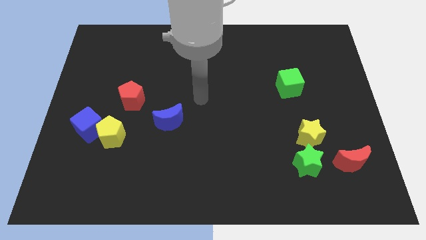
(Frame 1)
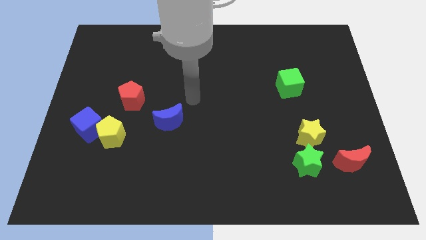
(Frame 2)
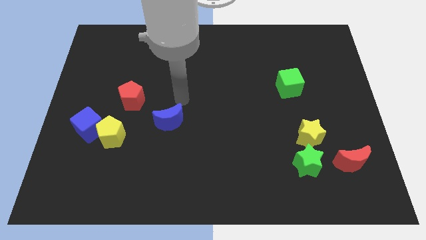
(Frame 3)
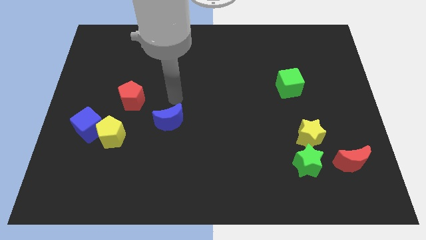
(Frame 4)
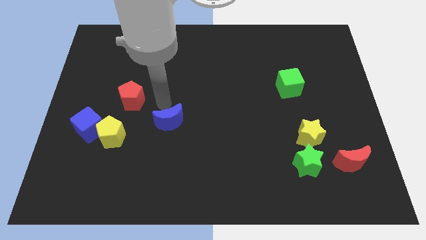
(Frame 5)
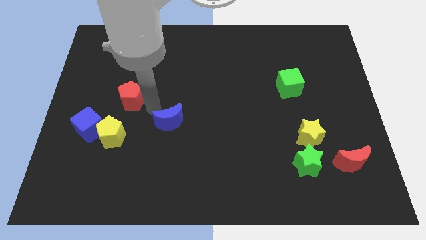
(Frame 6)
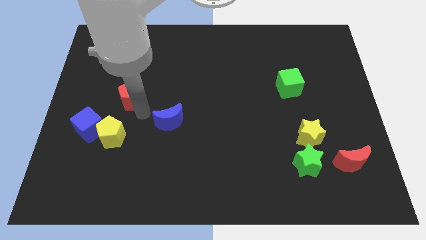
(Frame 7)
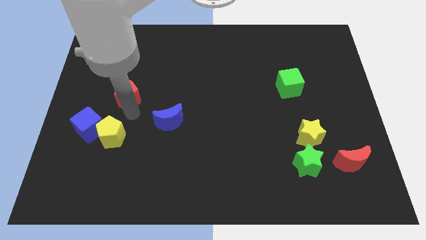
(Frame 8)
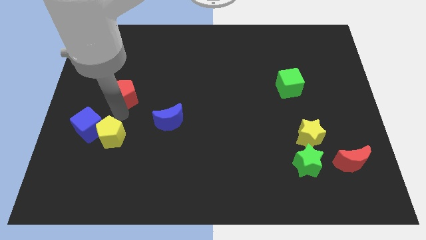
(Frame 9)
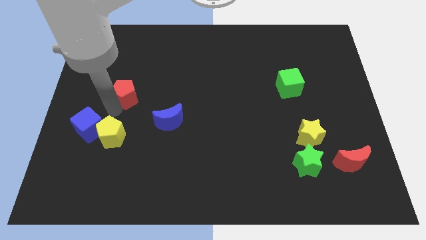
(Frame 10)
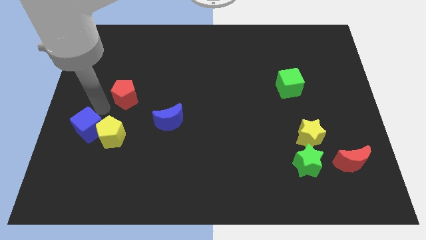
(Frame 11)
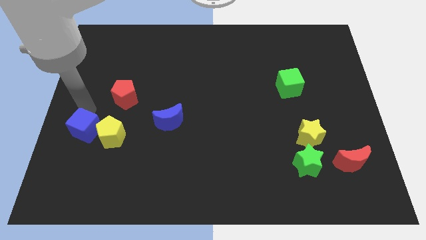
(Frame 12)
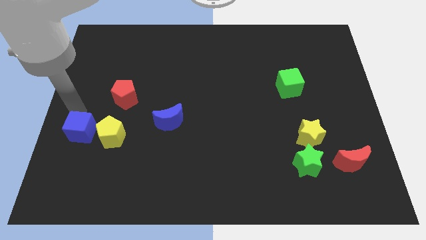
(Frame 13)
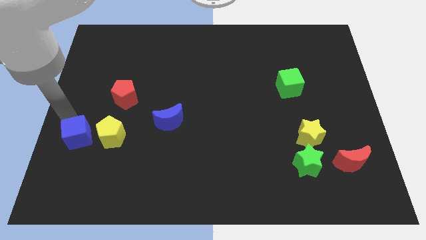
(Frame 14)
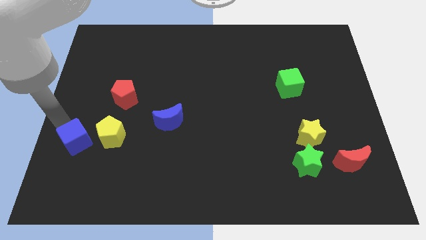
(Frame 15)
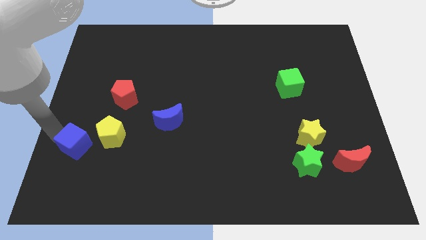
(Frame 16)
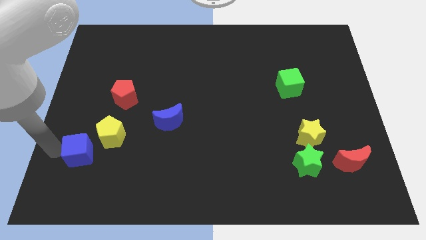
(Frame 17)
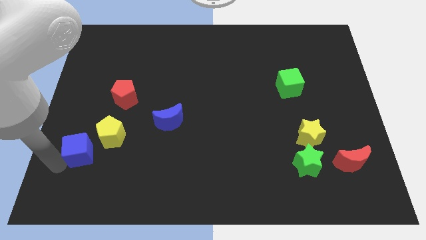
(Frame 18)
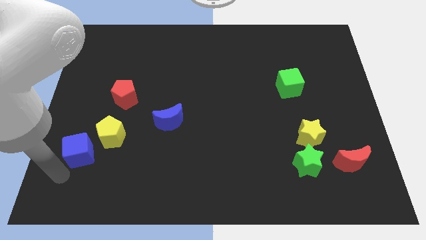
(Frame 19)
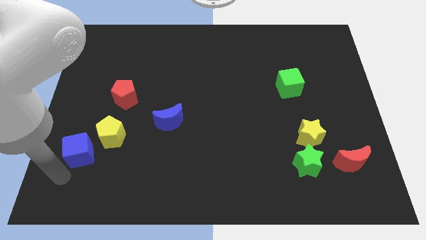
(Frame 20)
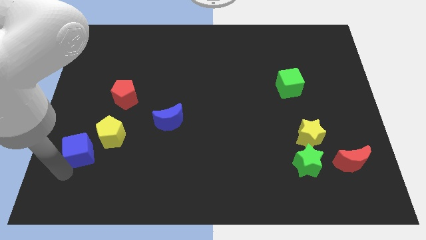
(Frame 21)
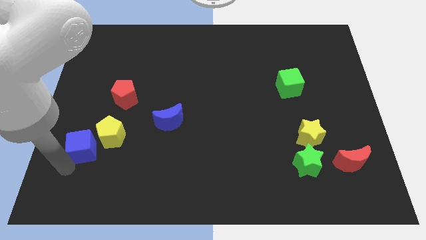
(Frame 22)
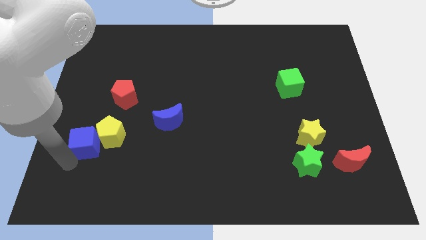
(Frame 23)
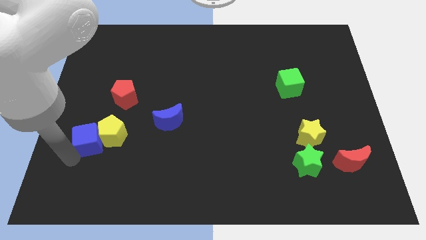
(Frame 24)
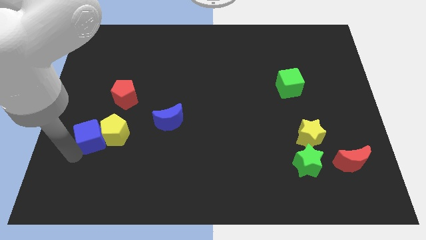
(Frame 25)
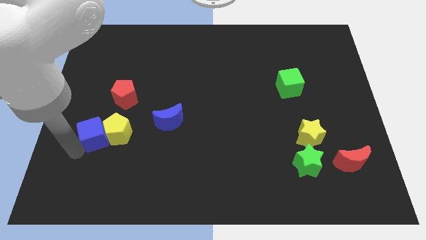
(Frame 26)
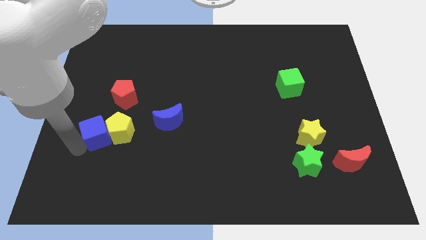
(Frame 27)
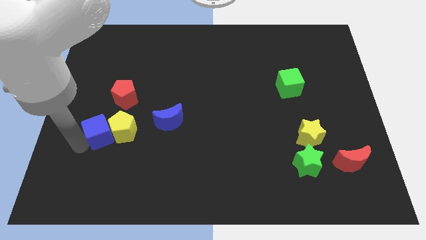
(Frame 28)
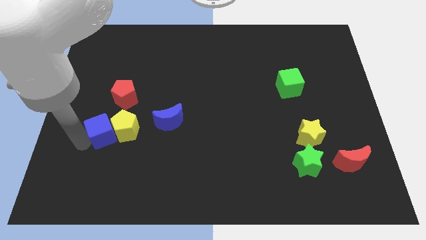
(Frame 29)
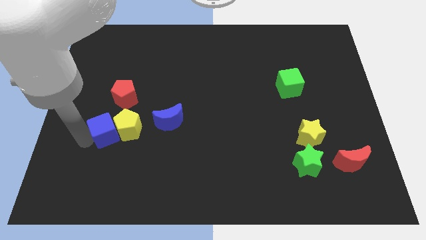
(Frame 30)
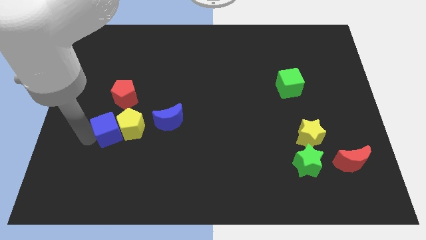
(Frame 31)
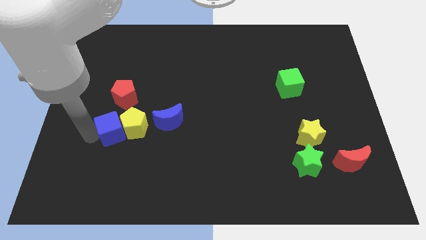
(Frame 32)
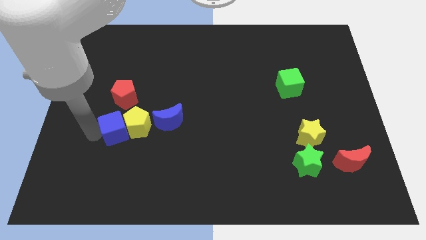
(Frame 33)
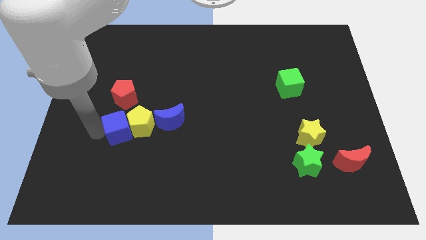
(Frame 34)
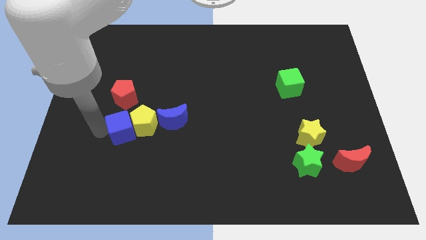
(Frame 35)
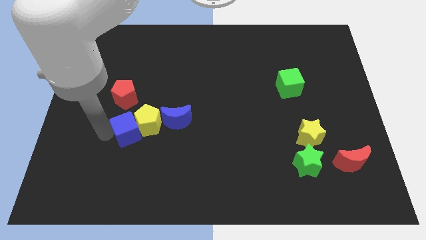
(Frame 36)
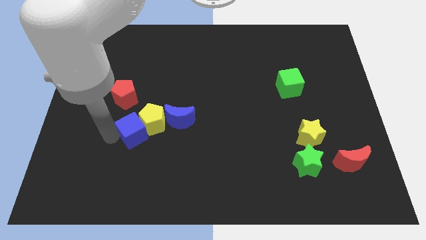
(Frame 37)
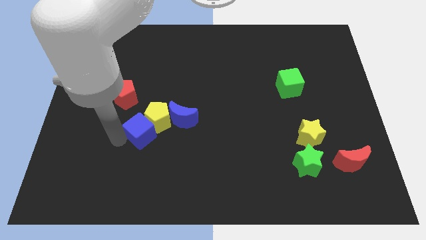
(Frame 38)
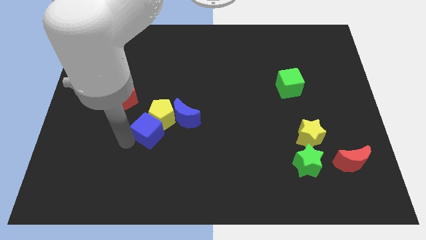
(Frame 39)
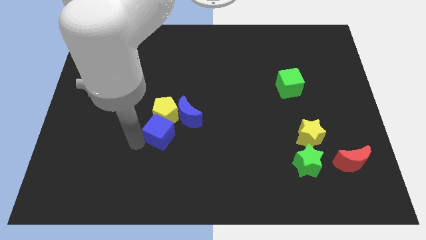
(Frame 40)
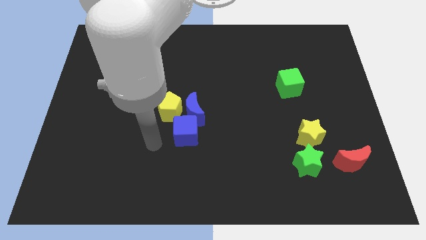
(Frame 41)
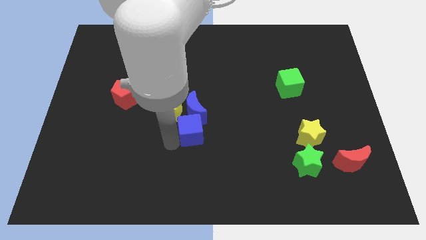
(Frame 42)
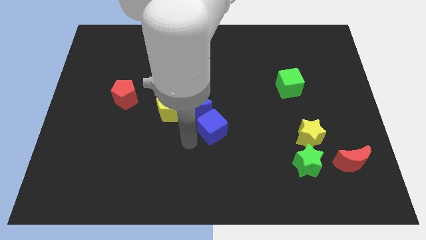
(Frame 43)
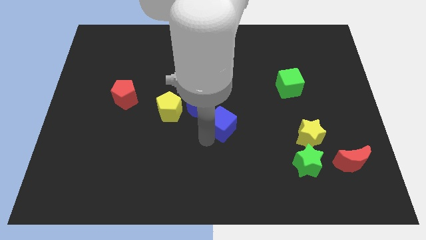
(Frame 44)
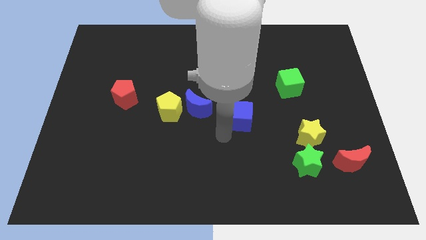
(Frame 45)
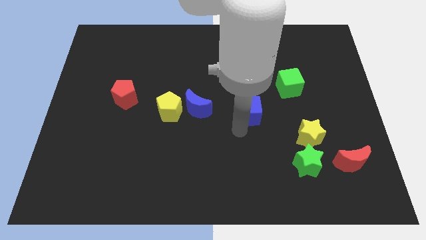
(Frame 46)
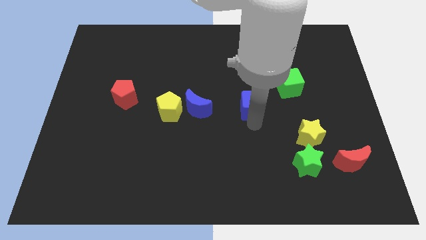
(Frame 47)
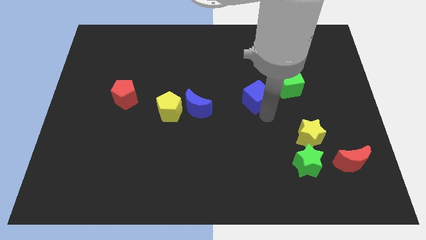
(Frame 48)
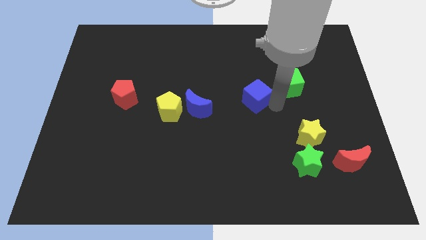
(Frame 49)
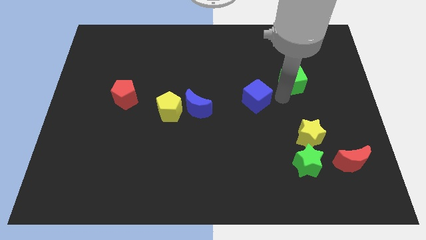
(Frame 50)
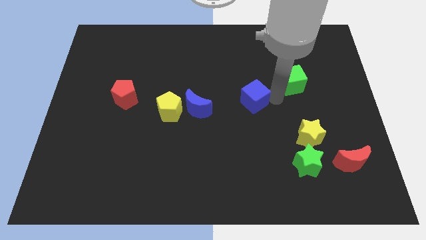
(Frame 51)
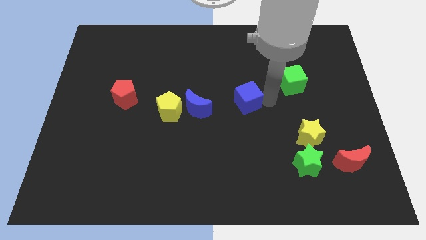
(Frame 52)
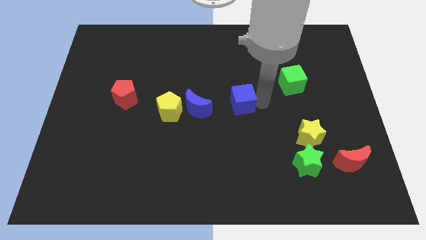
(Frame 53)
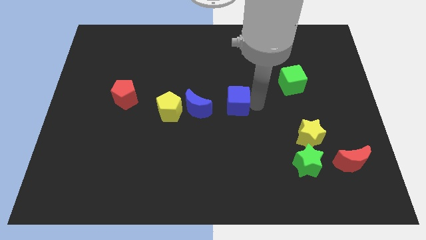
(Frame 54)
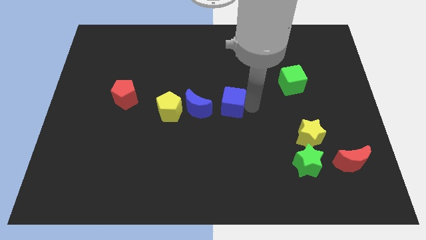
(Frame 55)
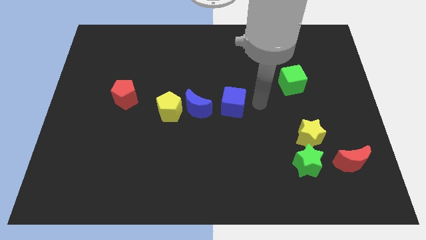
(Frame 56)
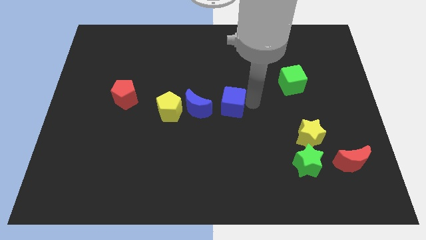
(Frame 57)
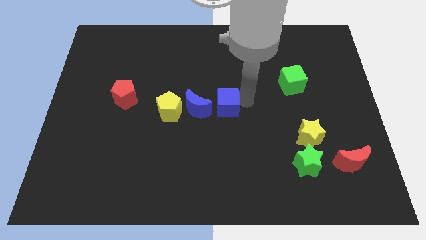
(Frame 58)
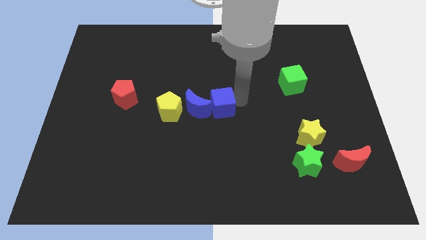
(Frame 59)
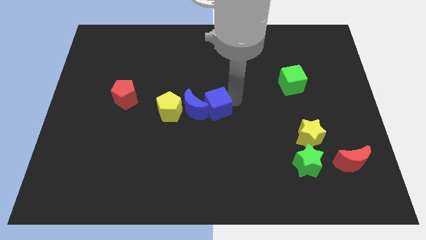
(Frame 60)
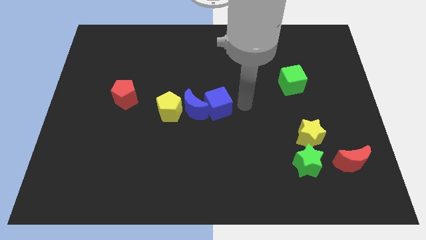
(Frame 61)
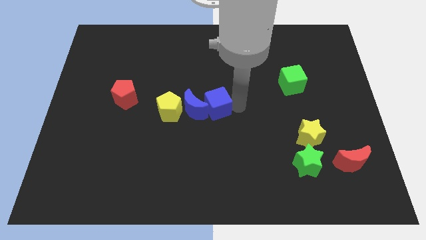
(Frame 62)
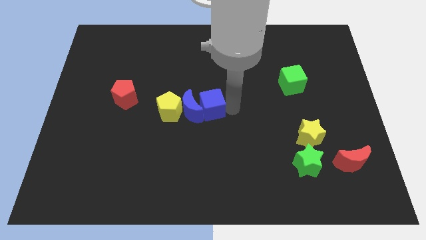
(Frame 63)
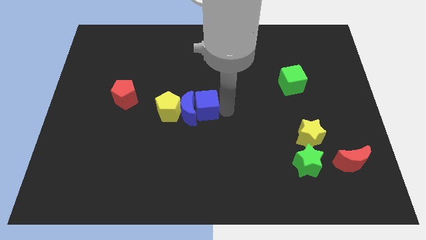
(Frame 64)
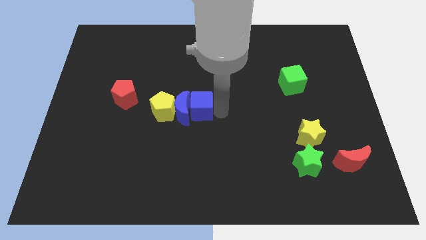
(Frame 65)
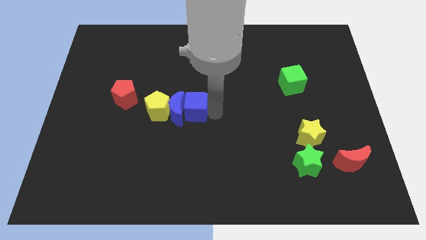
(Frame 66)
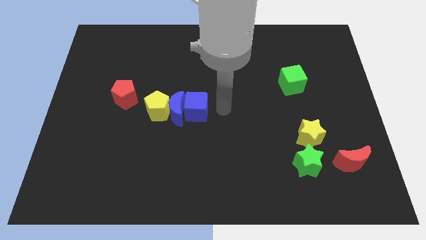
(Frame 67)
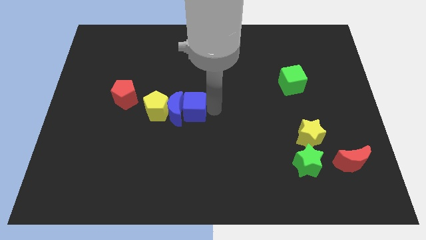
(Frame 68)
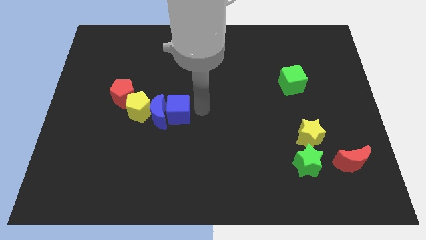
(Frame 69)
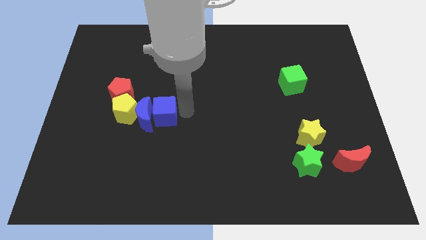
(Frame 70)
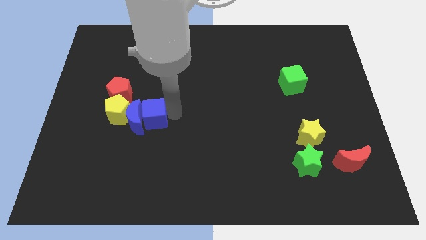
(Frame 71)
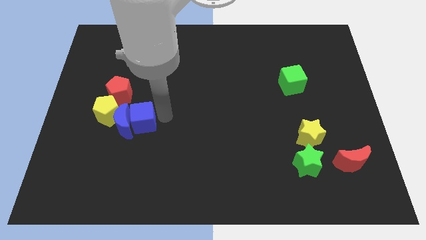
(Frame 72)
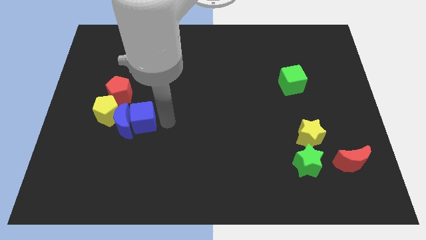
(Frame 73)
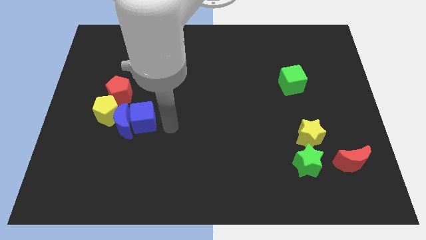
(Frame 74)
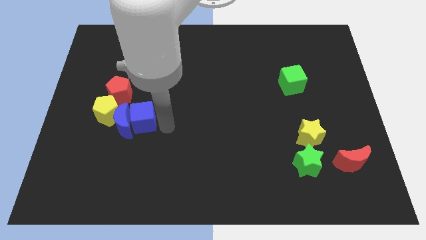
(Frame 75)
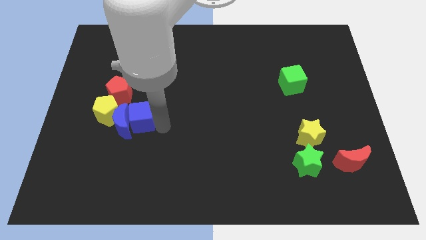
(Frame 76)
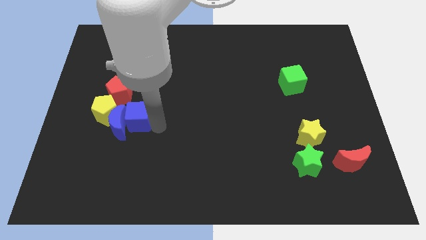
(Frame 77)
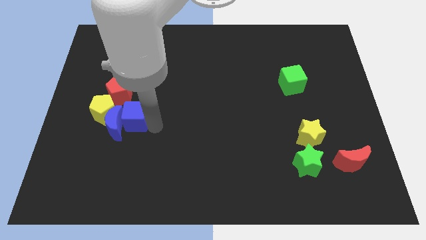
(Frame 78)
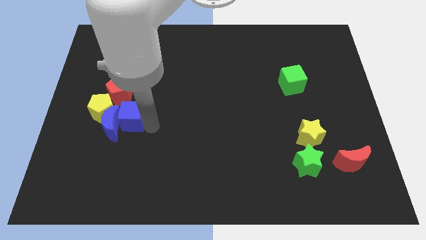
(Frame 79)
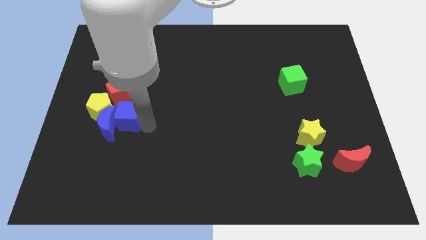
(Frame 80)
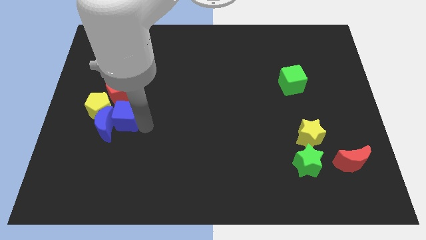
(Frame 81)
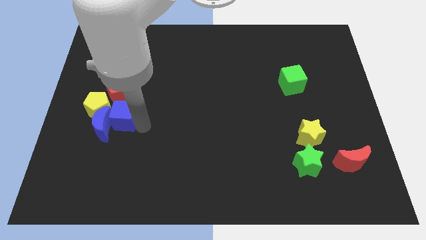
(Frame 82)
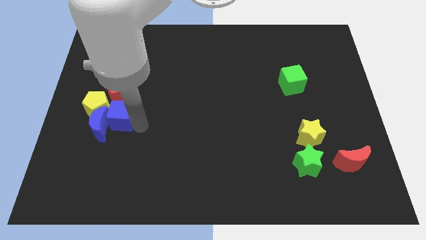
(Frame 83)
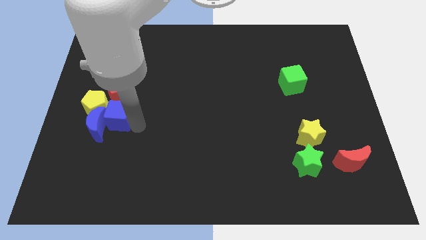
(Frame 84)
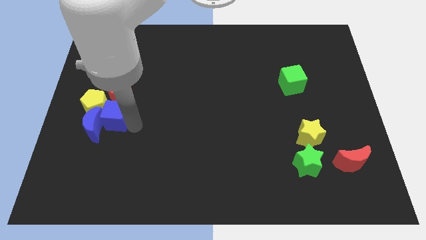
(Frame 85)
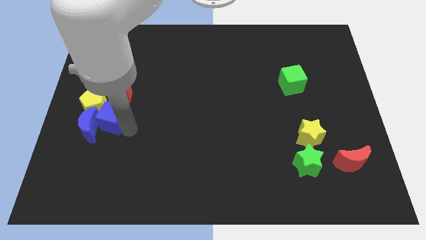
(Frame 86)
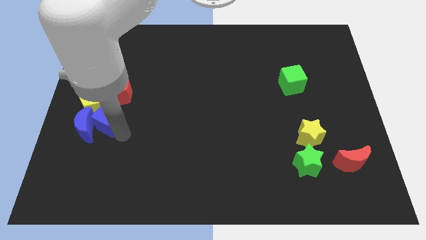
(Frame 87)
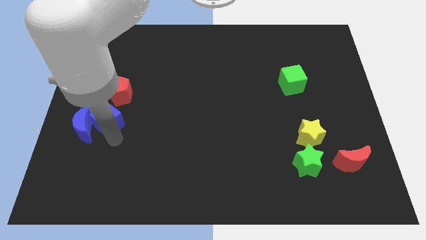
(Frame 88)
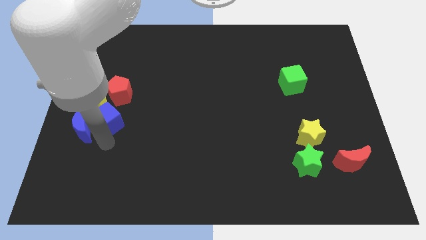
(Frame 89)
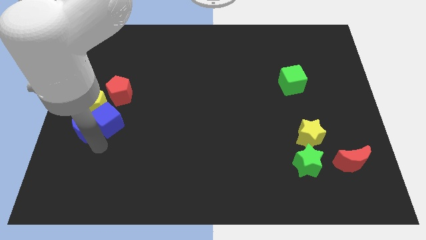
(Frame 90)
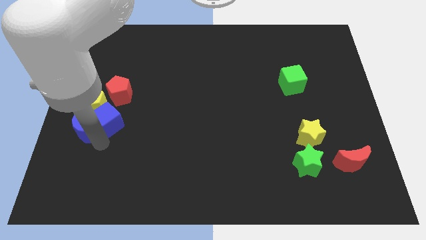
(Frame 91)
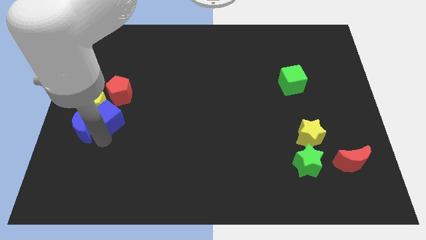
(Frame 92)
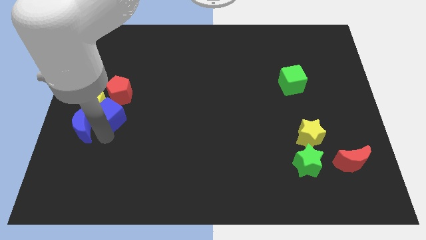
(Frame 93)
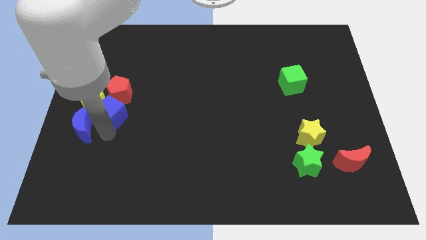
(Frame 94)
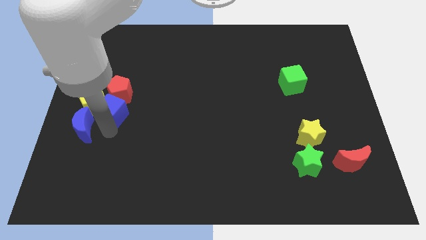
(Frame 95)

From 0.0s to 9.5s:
slide the blue cube towards the red pentagon
